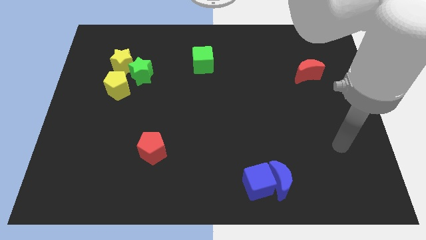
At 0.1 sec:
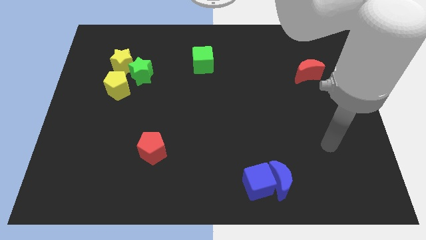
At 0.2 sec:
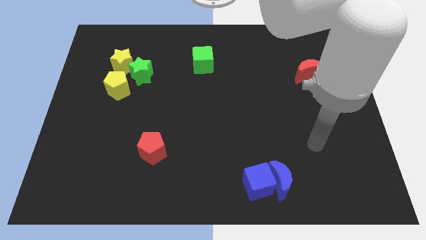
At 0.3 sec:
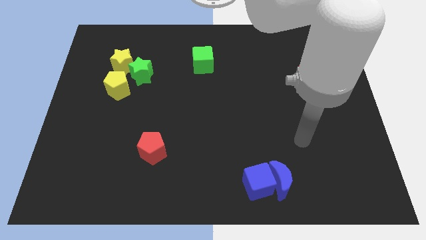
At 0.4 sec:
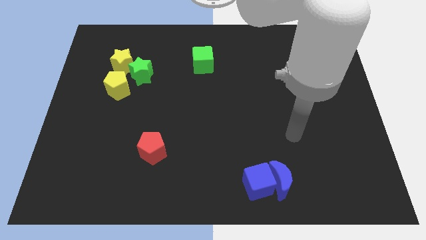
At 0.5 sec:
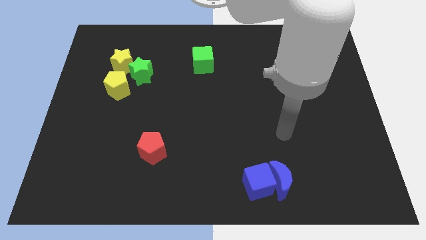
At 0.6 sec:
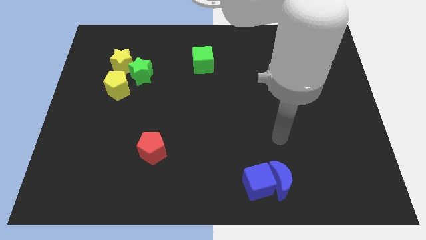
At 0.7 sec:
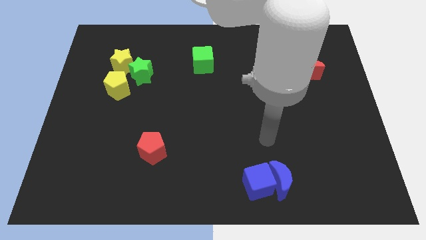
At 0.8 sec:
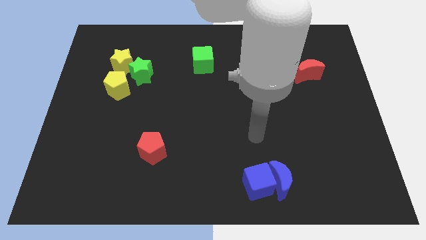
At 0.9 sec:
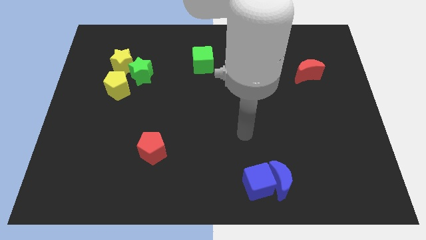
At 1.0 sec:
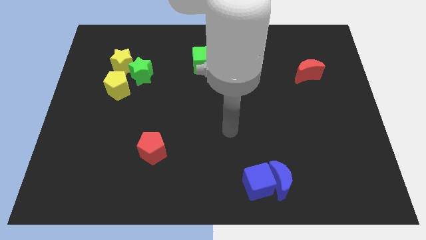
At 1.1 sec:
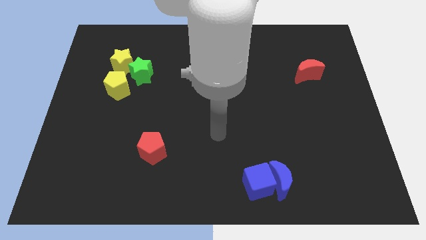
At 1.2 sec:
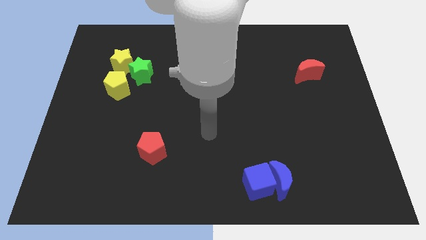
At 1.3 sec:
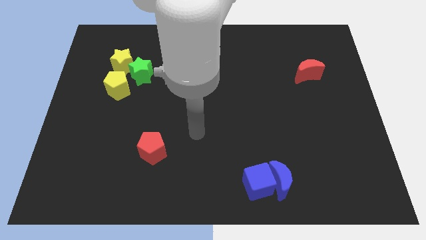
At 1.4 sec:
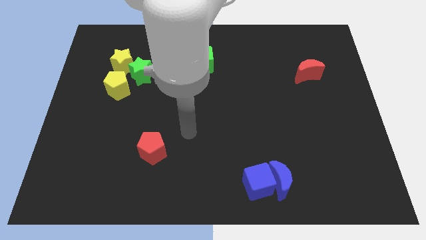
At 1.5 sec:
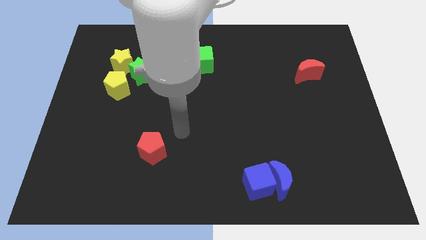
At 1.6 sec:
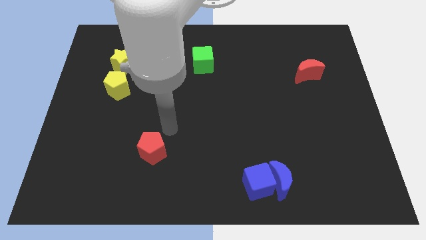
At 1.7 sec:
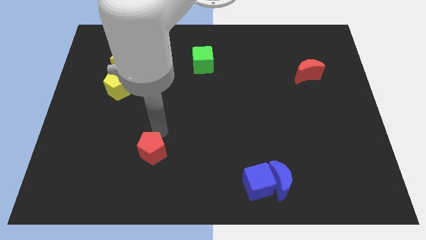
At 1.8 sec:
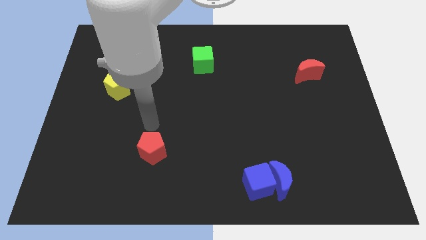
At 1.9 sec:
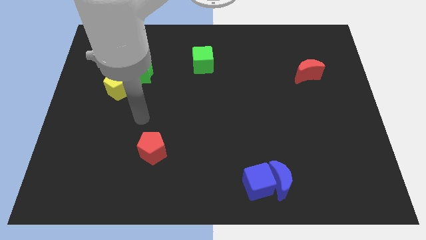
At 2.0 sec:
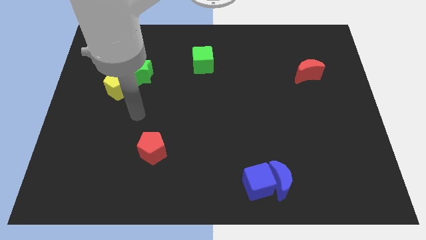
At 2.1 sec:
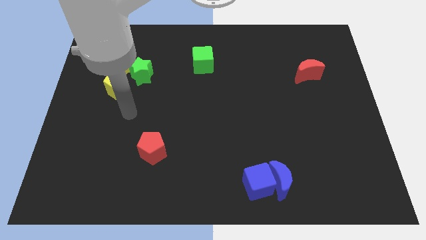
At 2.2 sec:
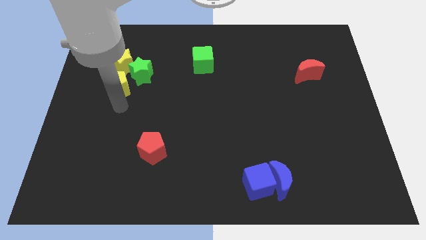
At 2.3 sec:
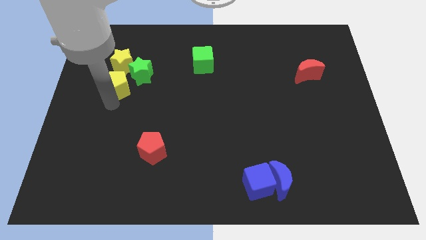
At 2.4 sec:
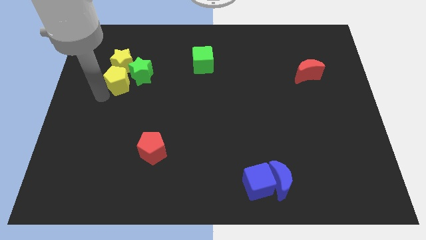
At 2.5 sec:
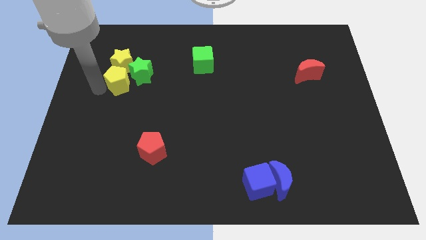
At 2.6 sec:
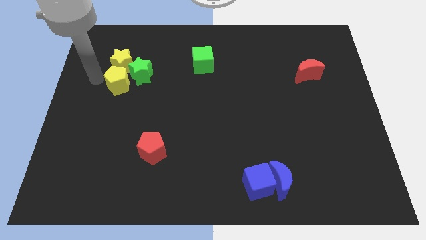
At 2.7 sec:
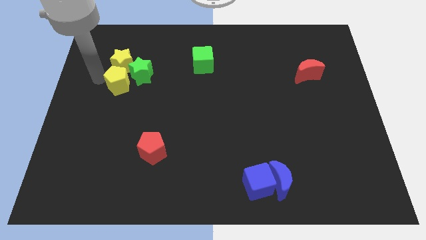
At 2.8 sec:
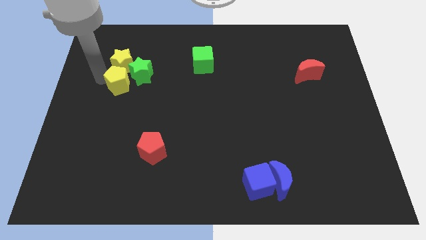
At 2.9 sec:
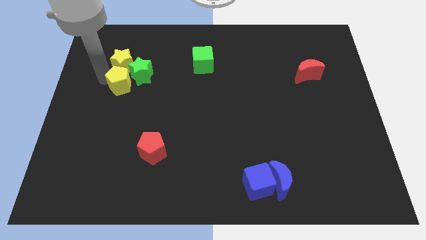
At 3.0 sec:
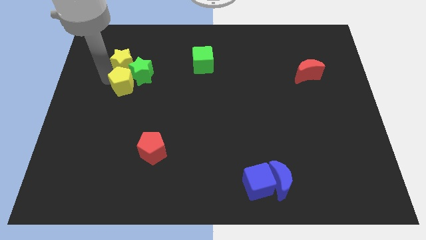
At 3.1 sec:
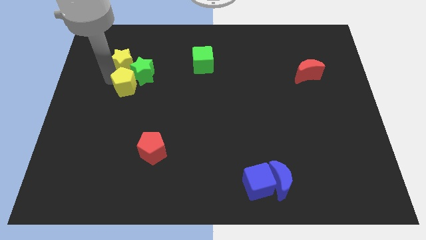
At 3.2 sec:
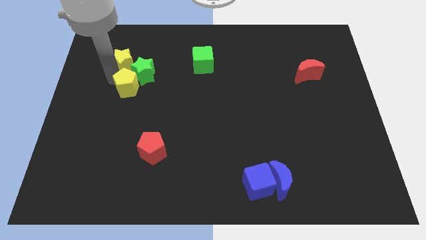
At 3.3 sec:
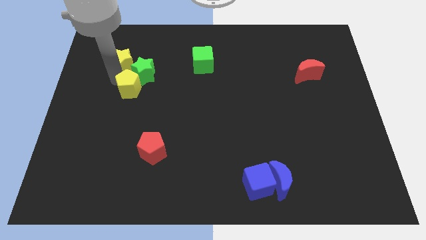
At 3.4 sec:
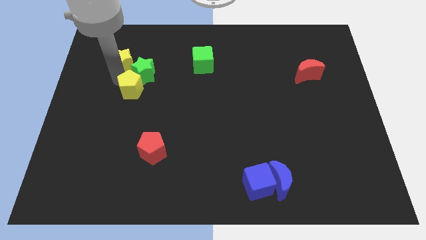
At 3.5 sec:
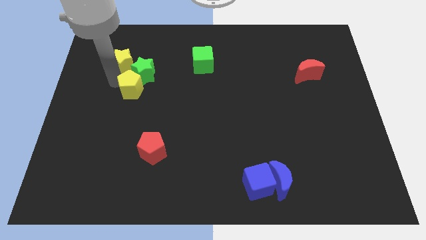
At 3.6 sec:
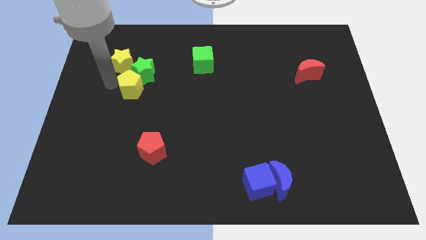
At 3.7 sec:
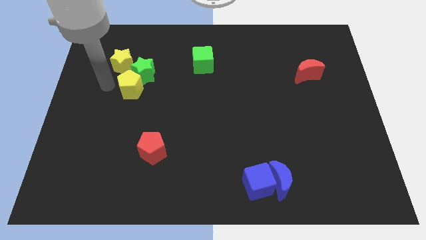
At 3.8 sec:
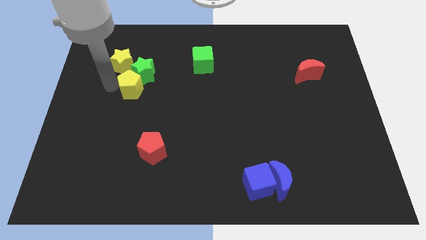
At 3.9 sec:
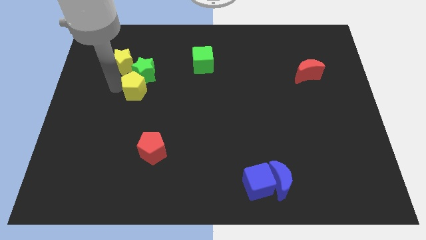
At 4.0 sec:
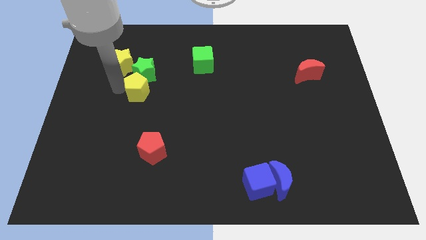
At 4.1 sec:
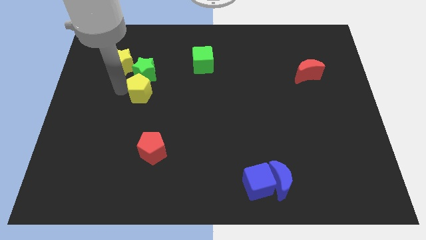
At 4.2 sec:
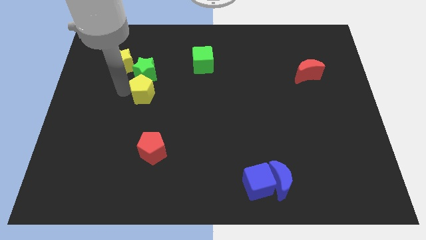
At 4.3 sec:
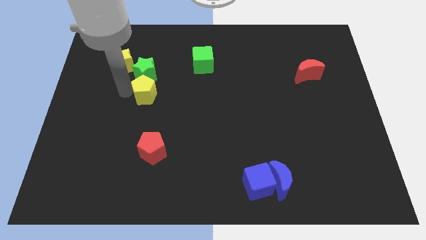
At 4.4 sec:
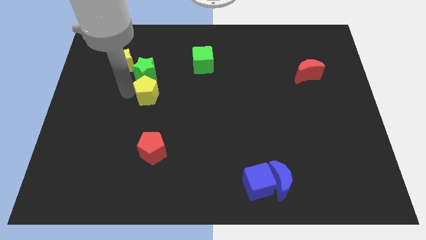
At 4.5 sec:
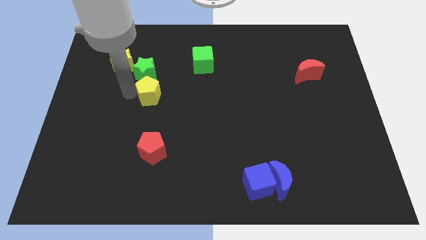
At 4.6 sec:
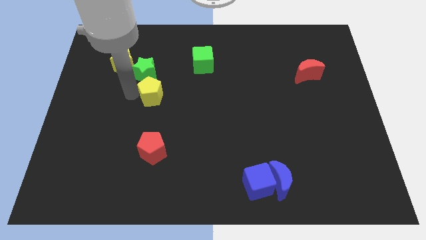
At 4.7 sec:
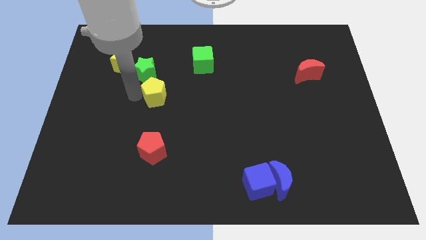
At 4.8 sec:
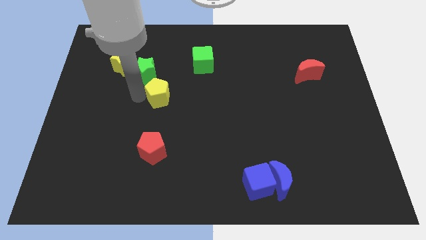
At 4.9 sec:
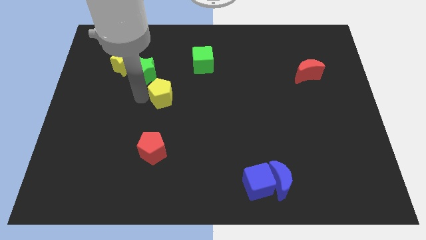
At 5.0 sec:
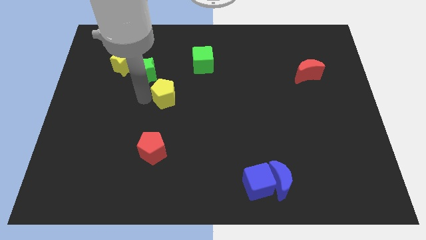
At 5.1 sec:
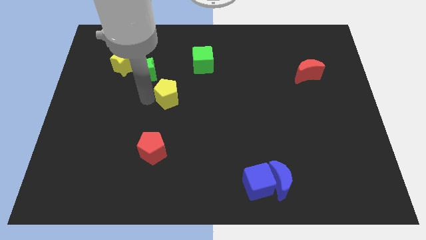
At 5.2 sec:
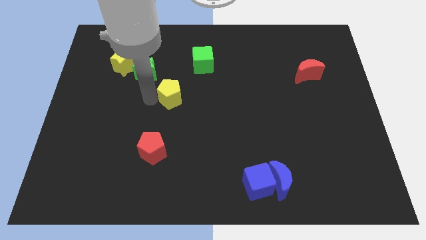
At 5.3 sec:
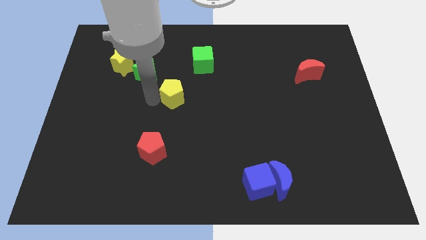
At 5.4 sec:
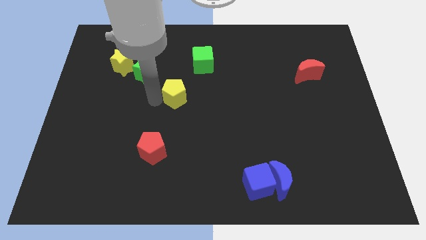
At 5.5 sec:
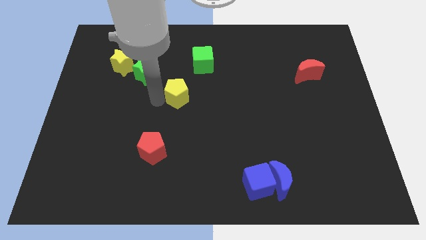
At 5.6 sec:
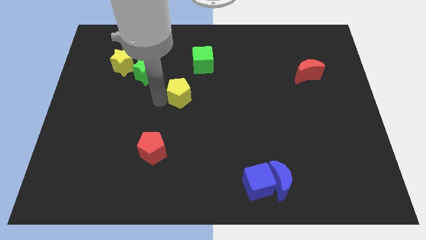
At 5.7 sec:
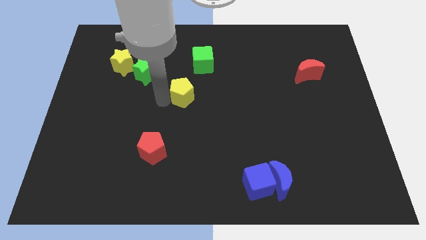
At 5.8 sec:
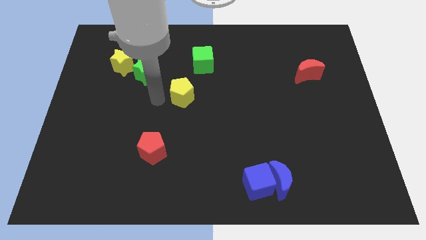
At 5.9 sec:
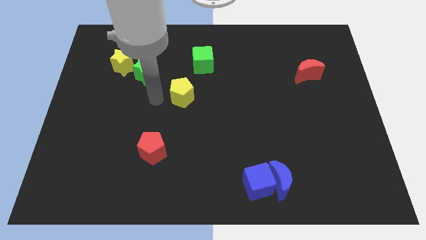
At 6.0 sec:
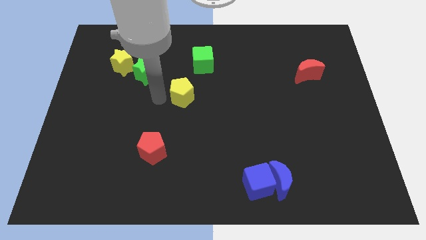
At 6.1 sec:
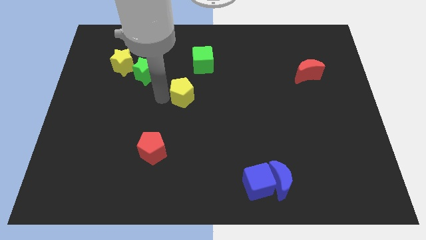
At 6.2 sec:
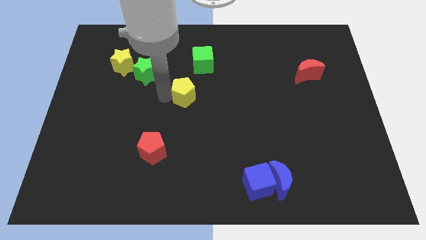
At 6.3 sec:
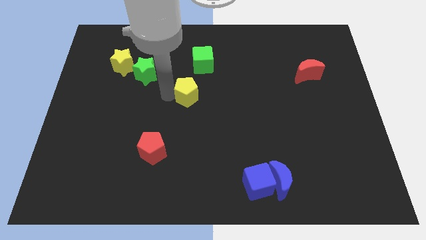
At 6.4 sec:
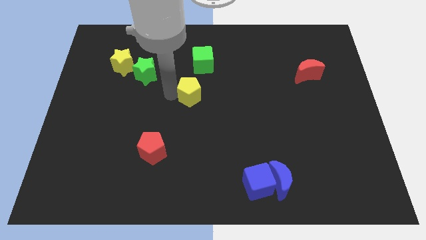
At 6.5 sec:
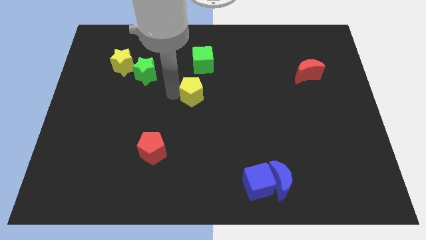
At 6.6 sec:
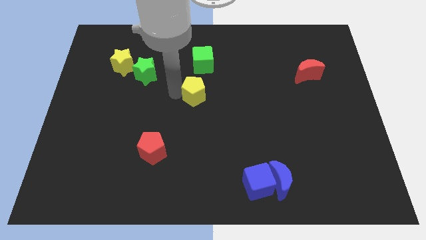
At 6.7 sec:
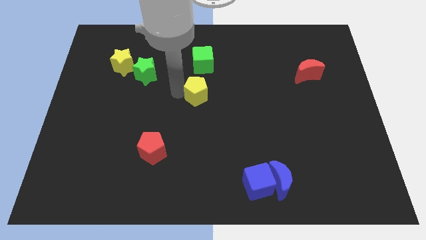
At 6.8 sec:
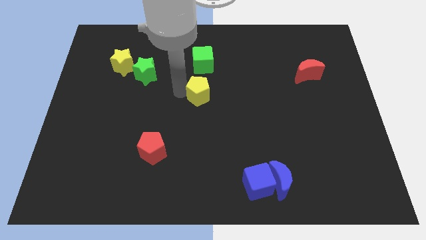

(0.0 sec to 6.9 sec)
move the yellow pentagon to the right

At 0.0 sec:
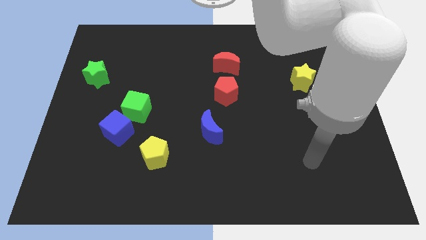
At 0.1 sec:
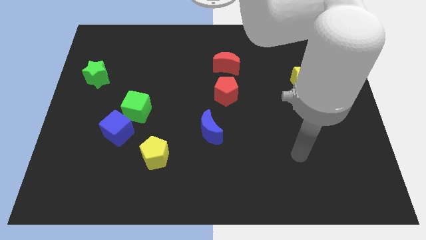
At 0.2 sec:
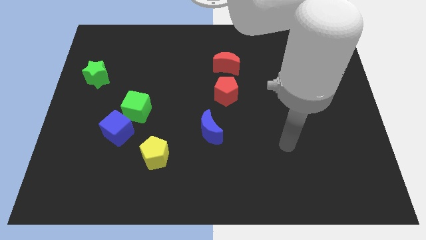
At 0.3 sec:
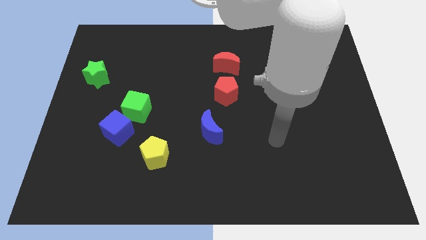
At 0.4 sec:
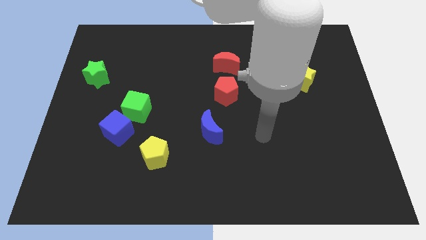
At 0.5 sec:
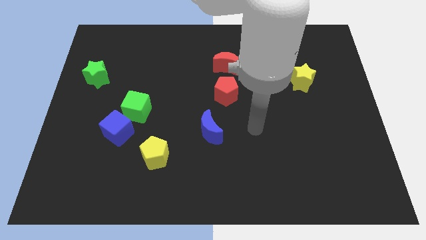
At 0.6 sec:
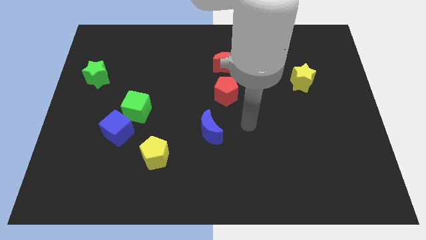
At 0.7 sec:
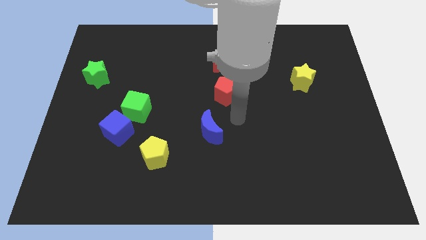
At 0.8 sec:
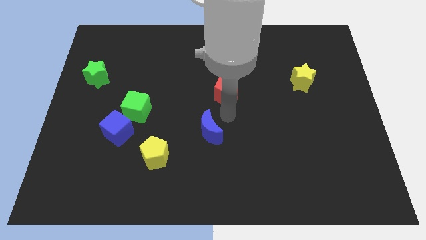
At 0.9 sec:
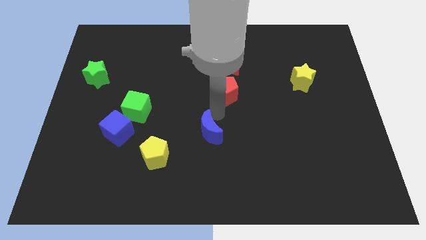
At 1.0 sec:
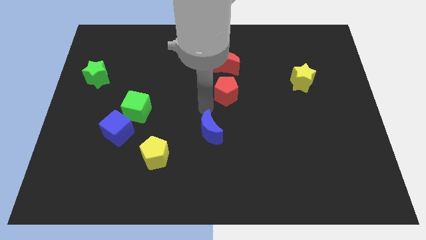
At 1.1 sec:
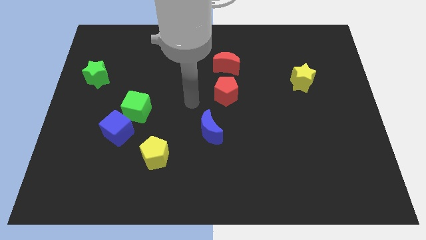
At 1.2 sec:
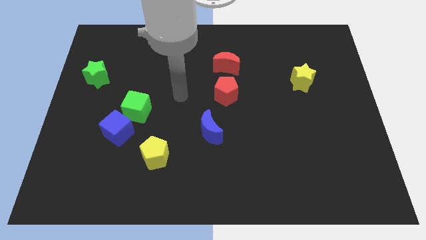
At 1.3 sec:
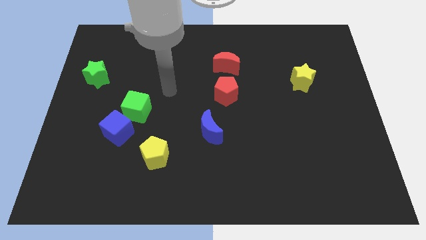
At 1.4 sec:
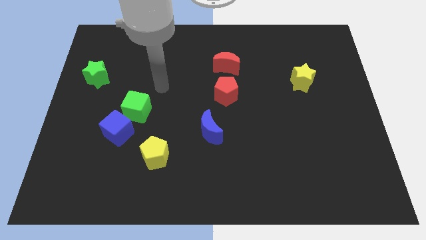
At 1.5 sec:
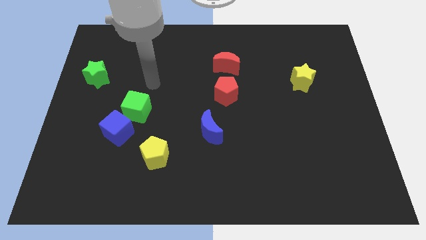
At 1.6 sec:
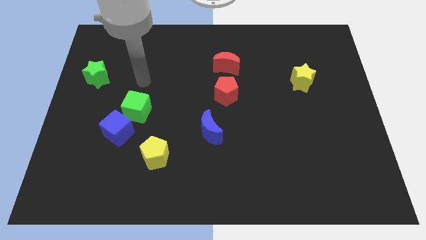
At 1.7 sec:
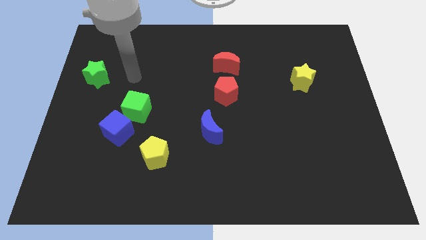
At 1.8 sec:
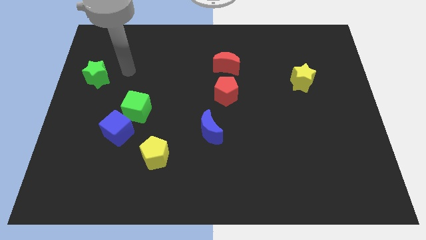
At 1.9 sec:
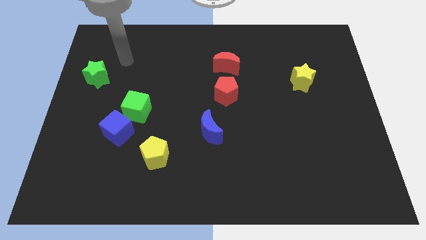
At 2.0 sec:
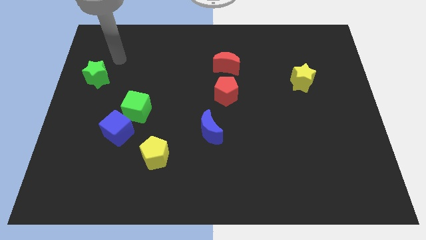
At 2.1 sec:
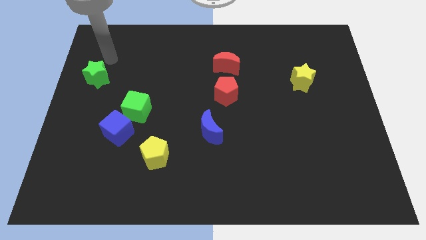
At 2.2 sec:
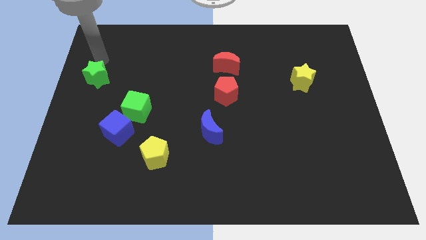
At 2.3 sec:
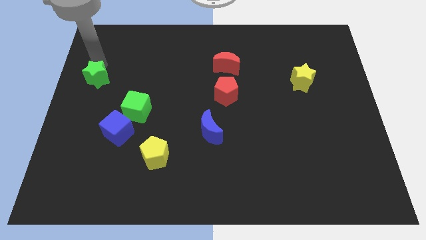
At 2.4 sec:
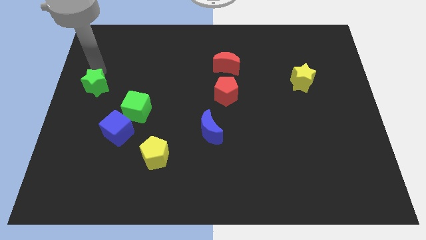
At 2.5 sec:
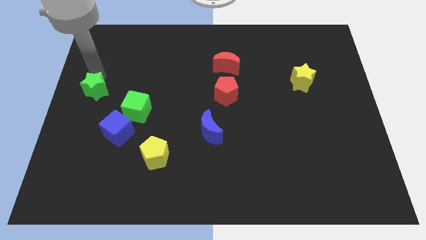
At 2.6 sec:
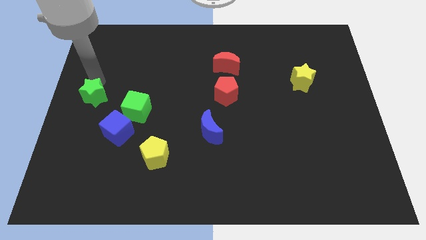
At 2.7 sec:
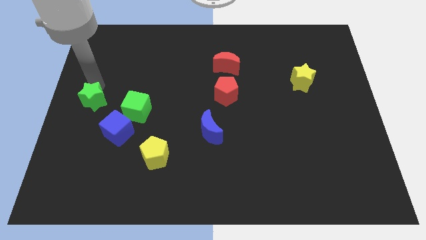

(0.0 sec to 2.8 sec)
slightly push the green star down
